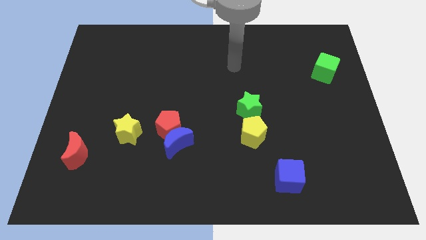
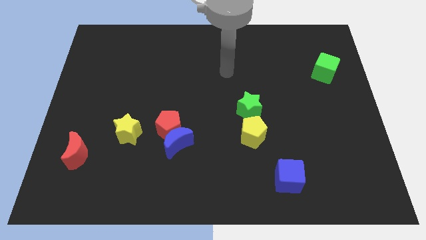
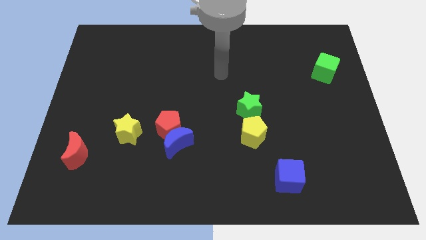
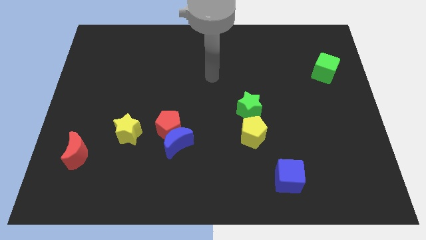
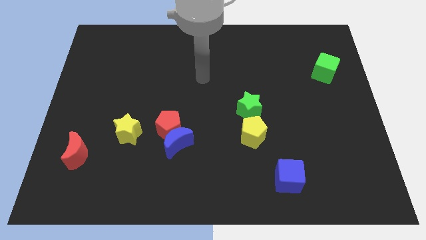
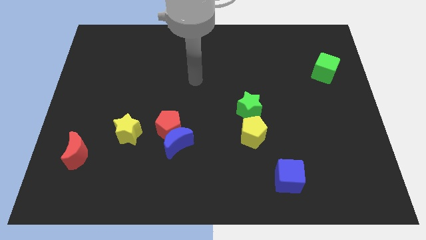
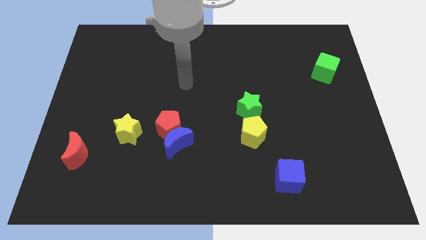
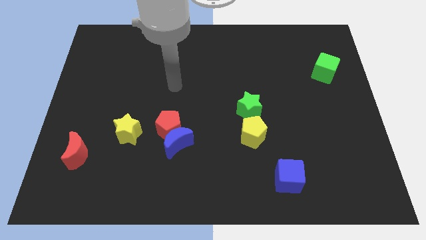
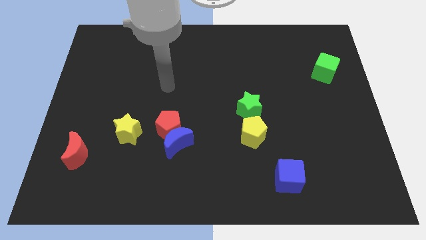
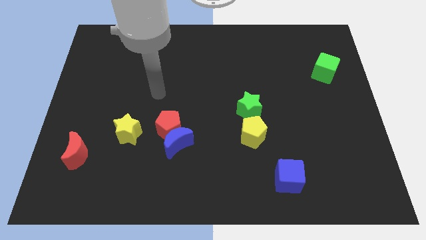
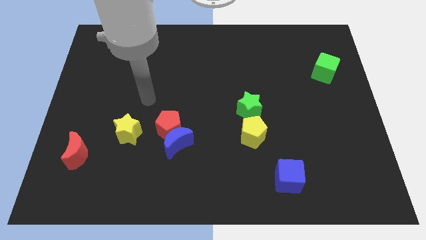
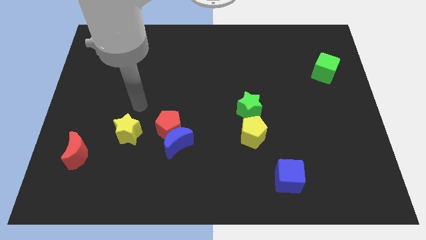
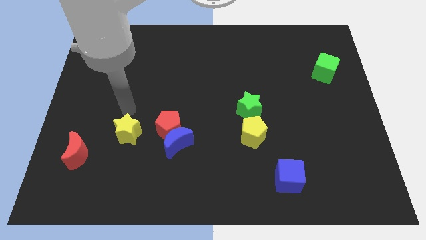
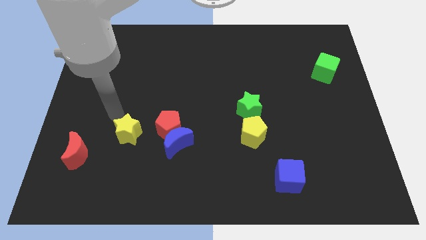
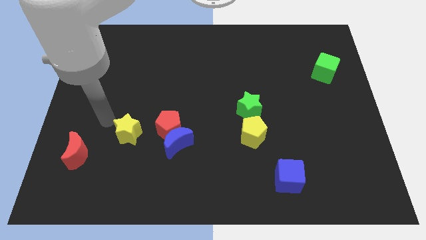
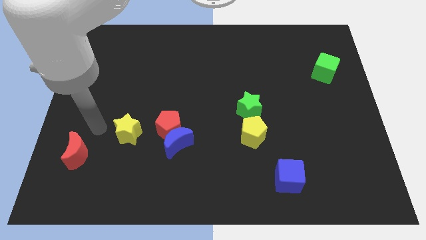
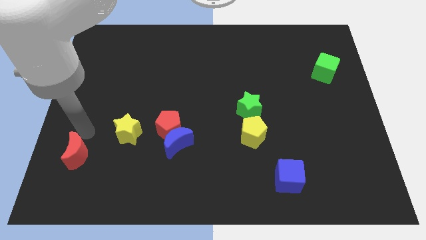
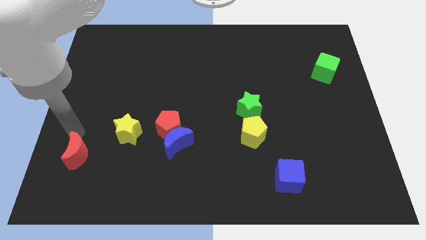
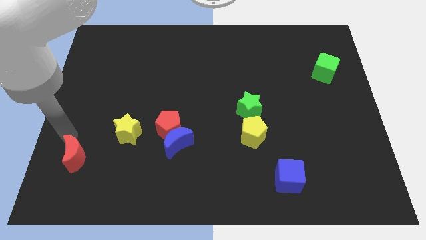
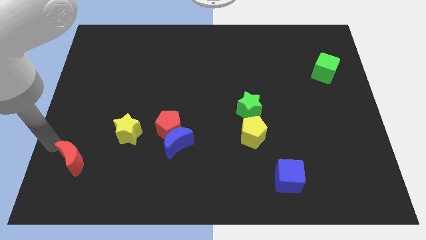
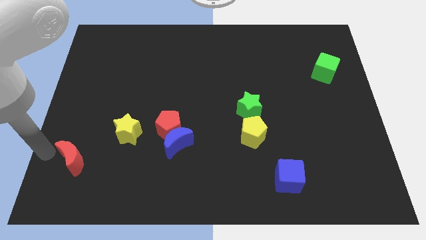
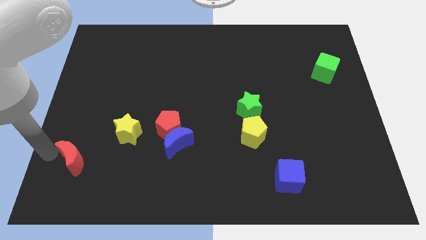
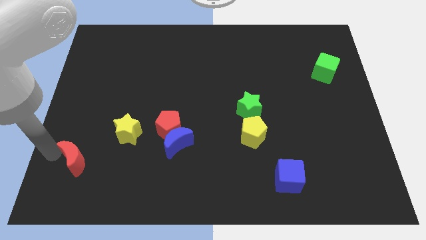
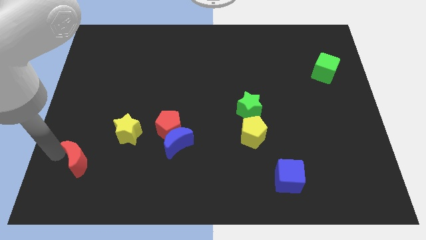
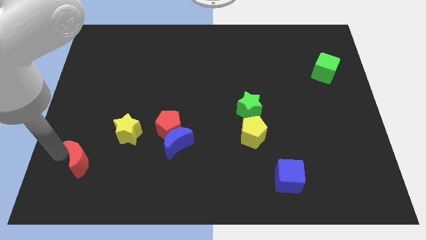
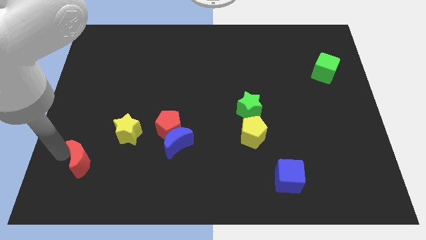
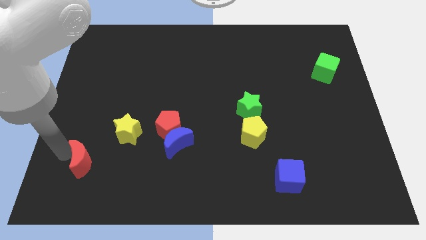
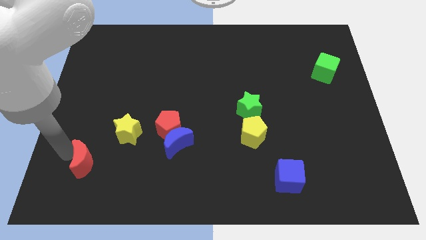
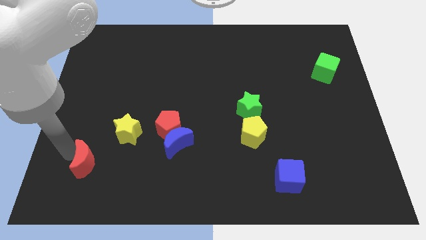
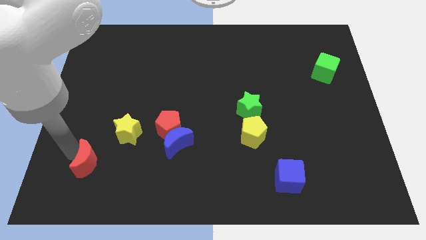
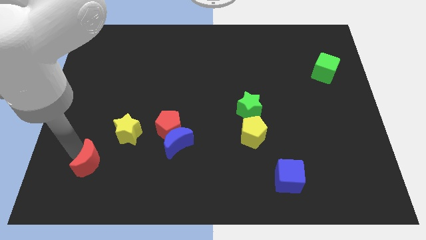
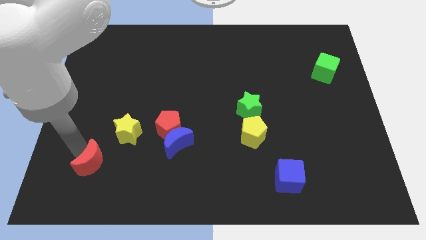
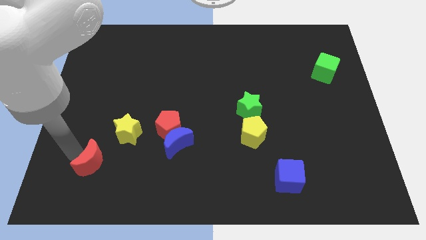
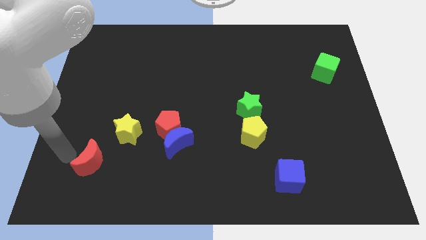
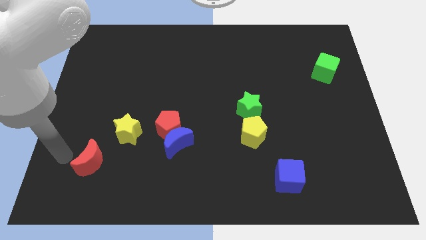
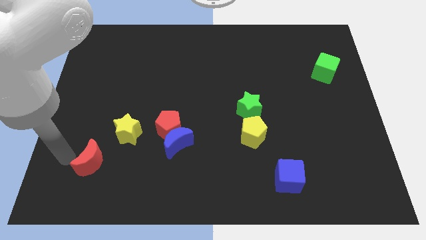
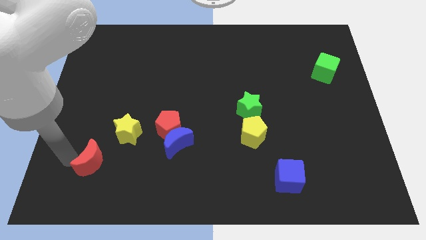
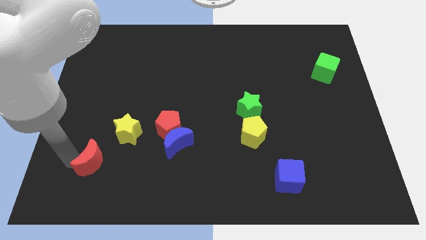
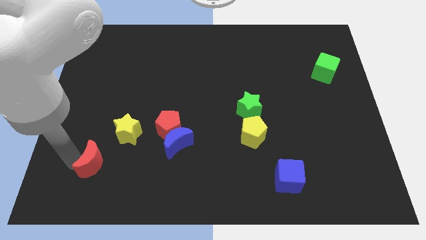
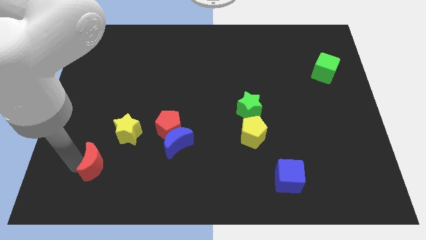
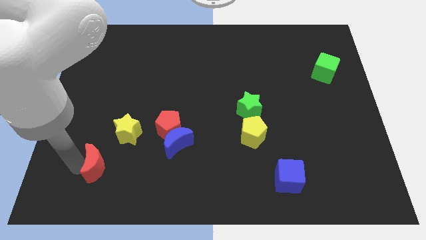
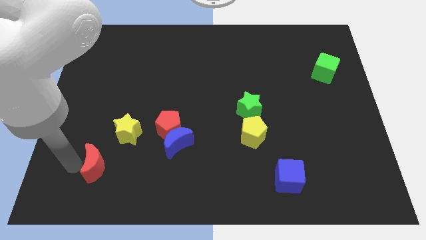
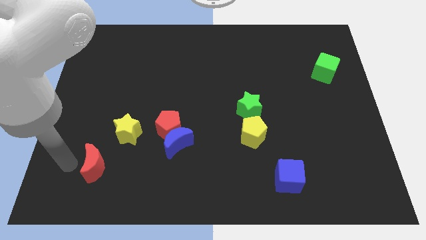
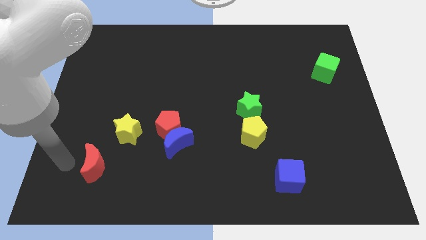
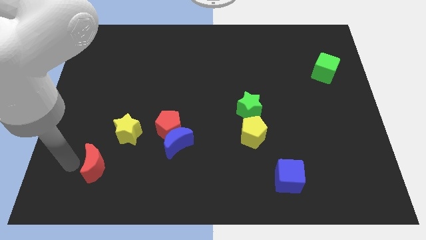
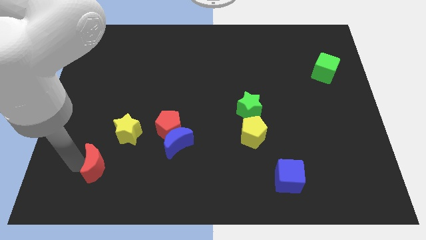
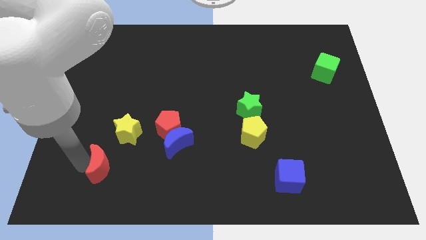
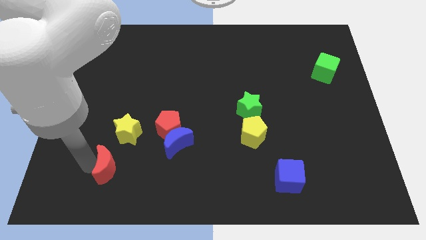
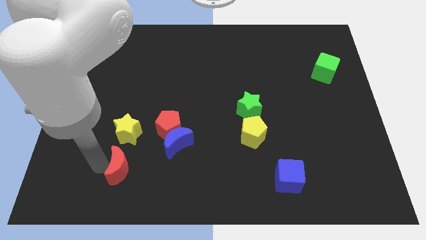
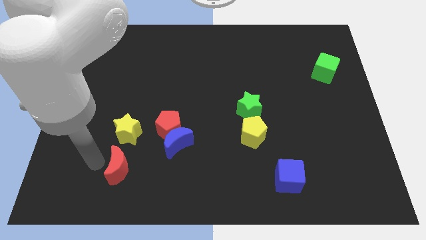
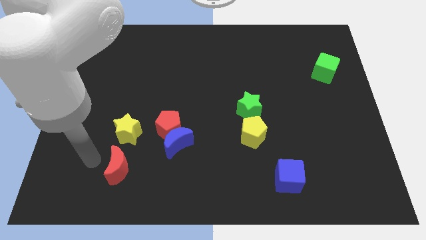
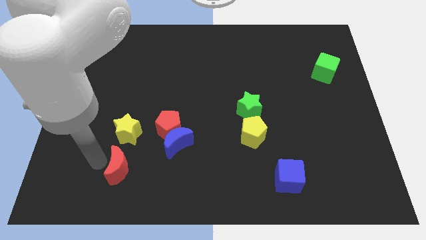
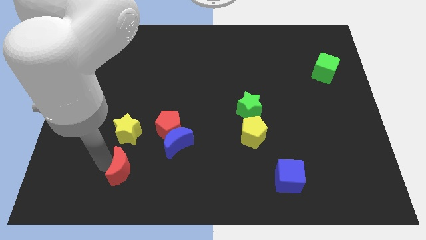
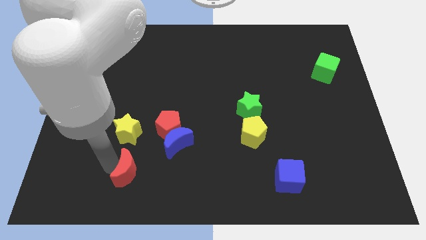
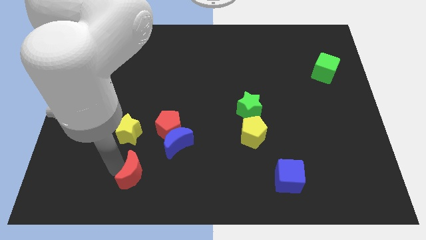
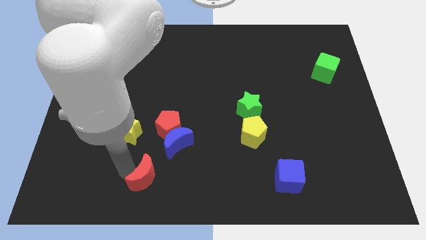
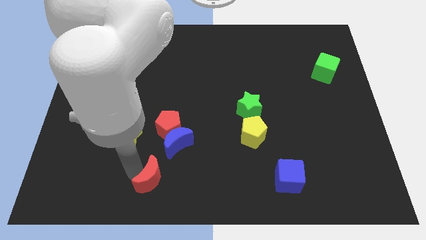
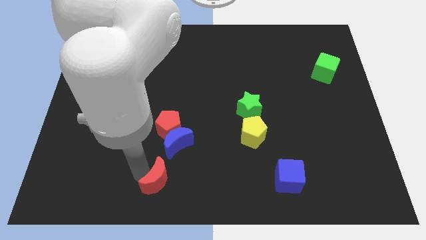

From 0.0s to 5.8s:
push the red moon to the bottom side

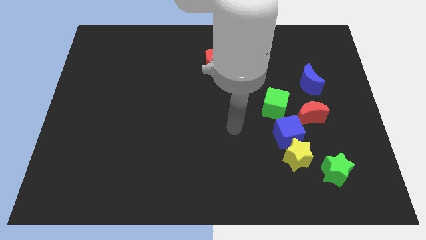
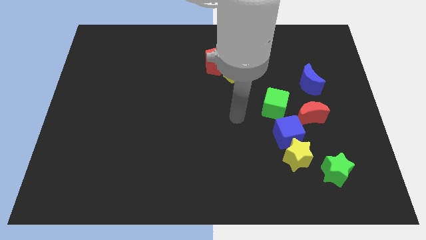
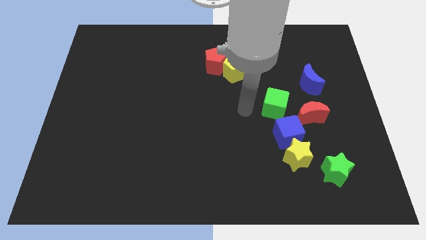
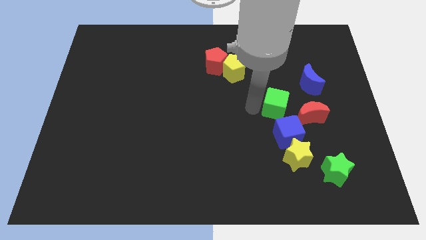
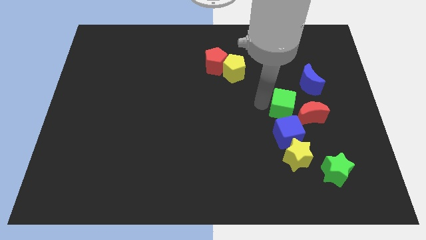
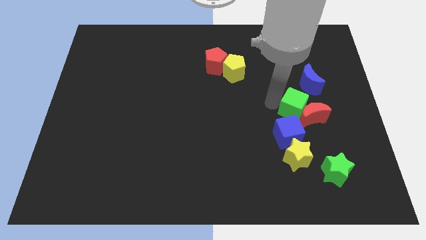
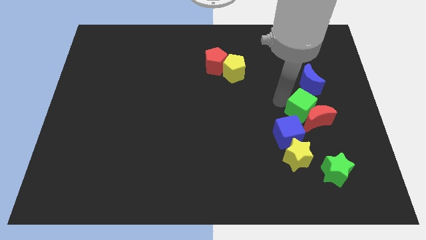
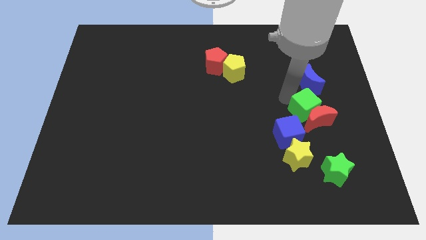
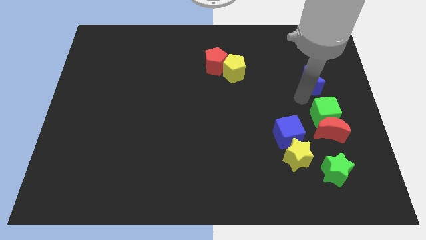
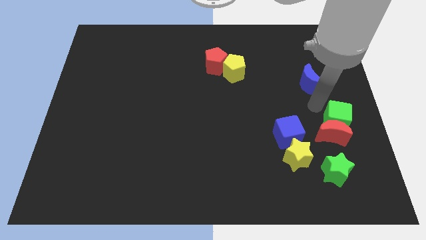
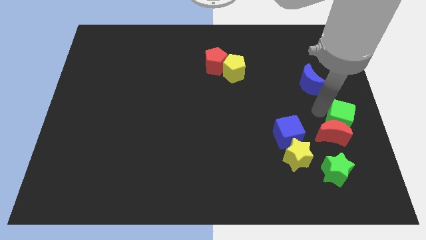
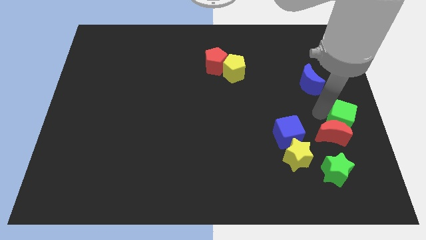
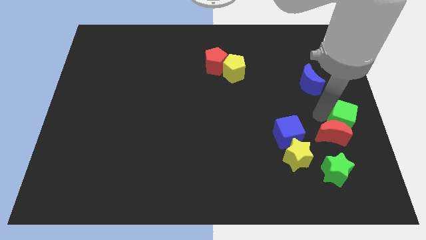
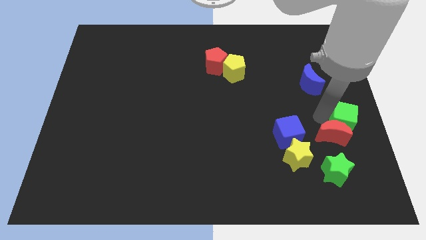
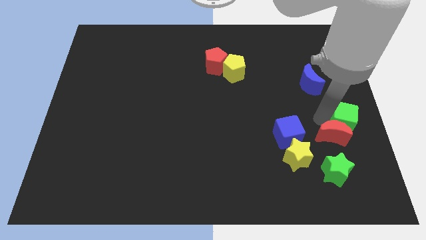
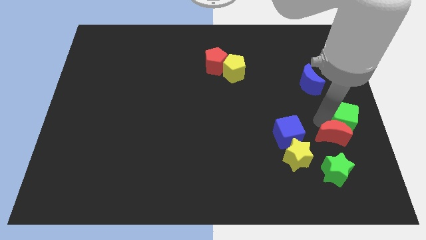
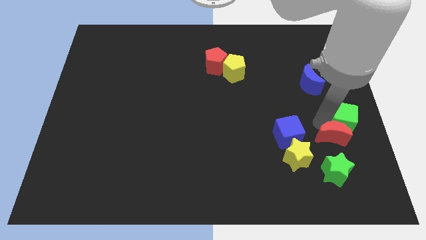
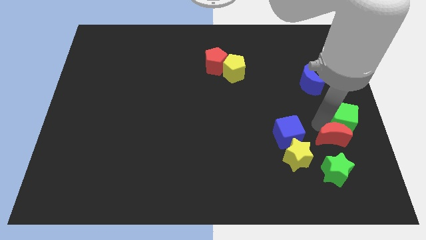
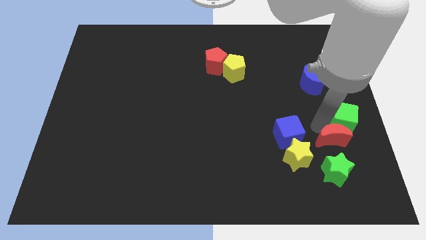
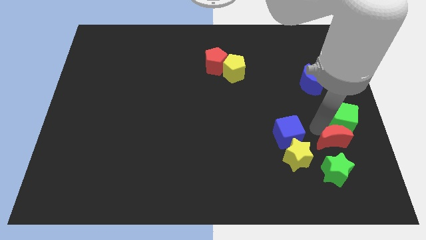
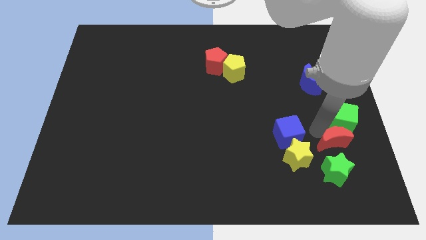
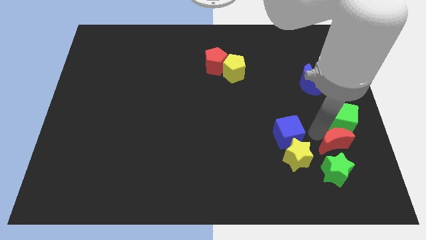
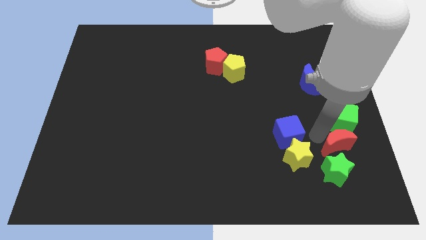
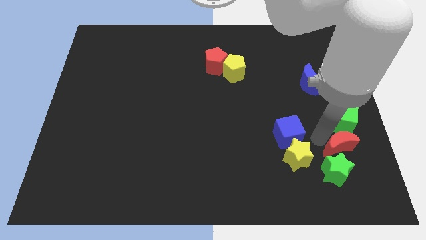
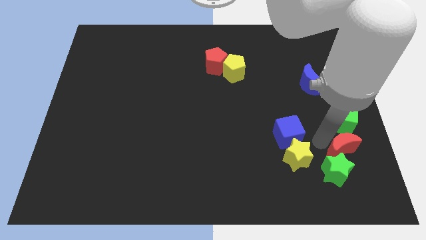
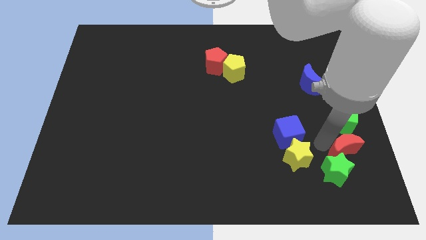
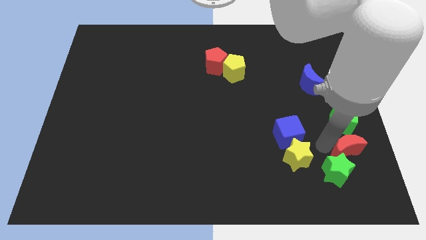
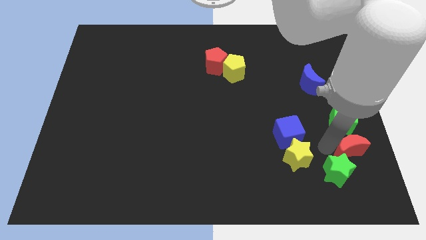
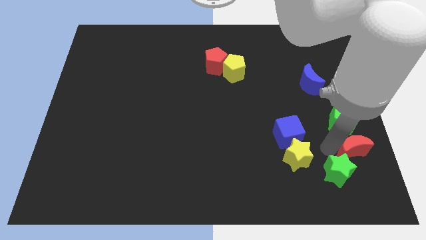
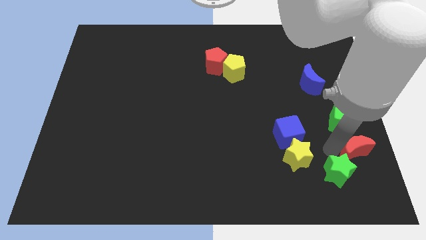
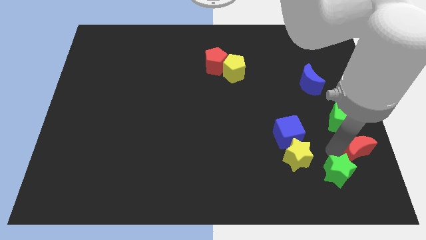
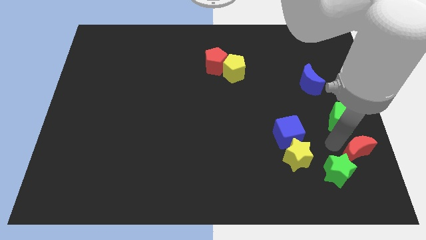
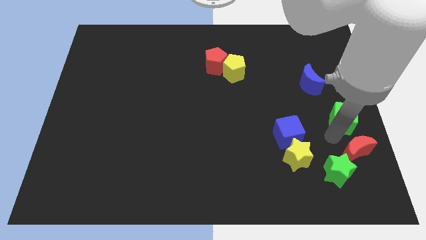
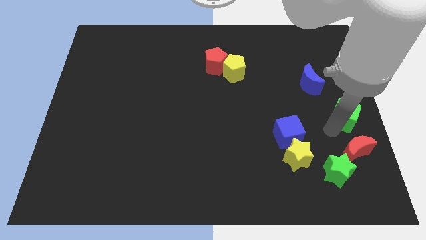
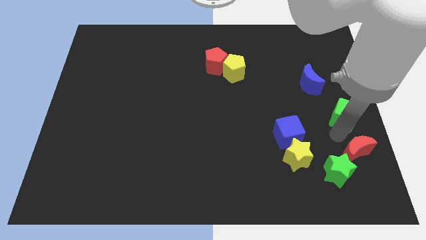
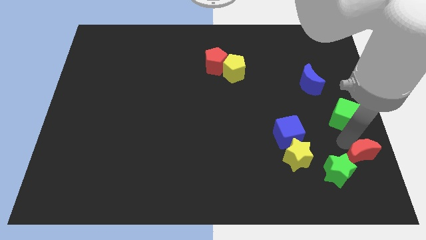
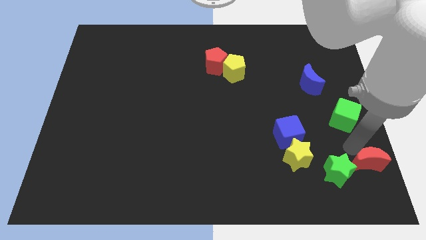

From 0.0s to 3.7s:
push the red moon to the bottom right corner
